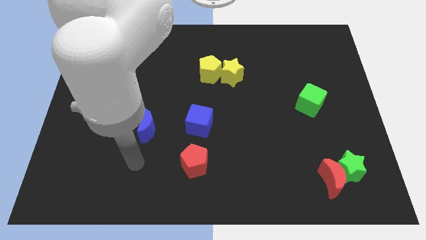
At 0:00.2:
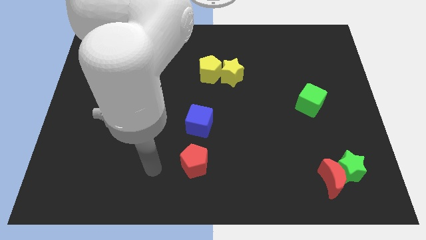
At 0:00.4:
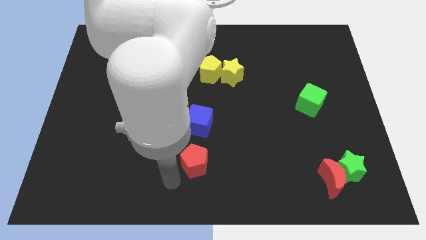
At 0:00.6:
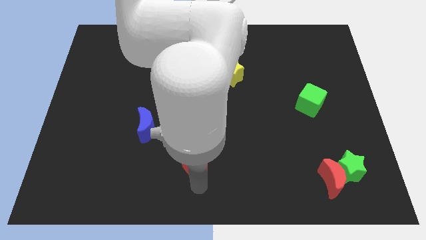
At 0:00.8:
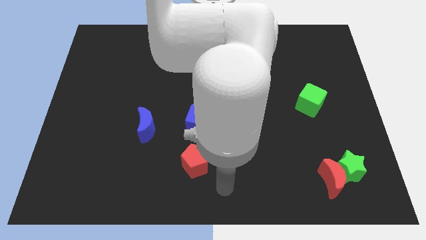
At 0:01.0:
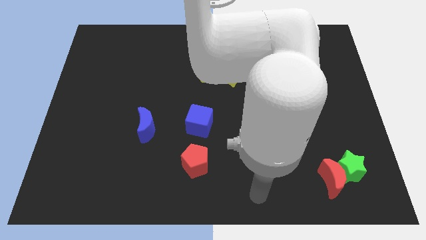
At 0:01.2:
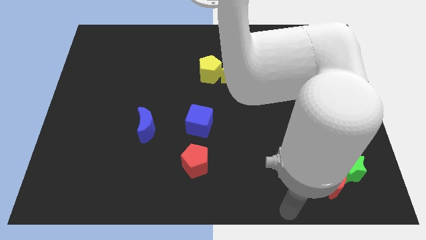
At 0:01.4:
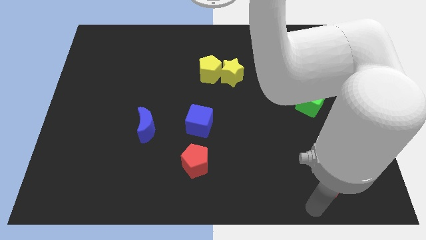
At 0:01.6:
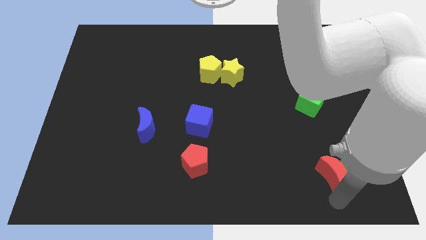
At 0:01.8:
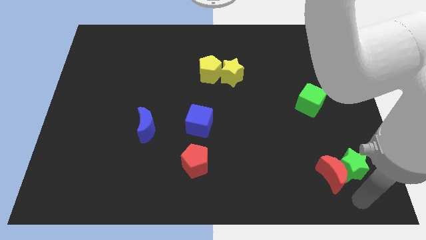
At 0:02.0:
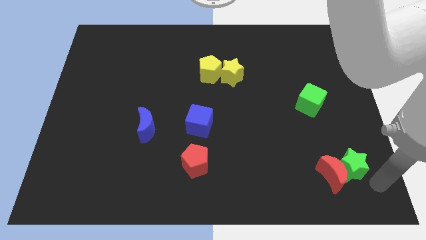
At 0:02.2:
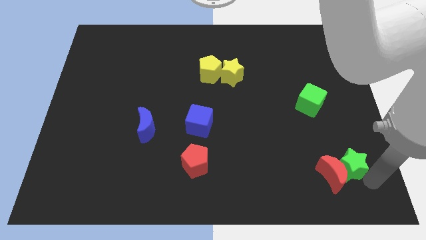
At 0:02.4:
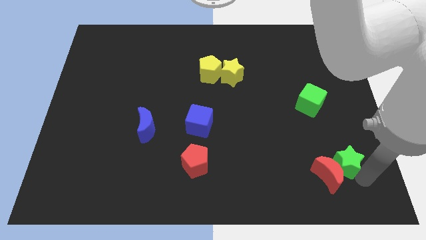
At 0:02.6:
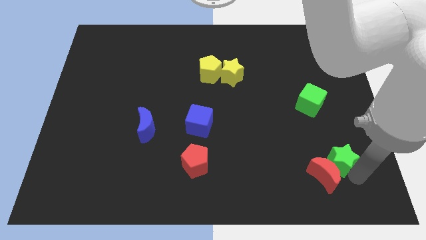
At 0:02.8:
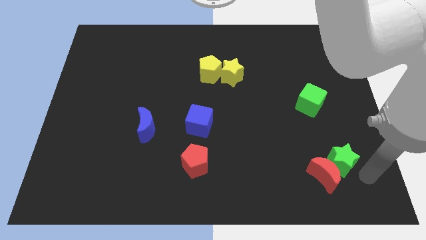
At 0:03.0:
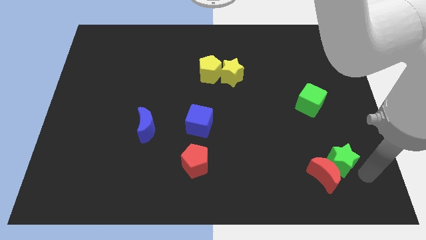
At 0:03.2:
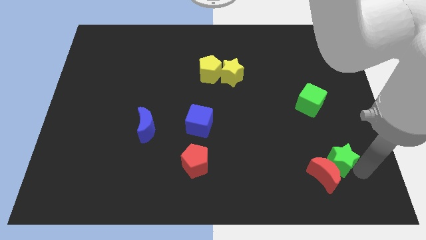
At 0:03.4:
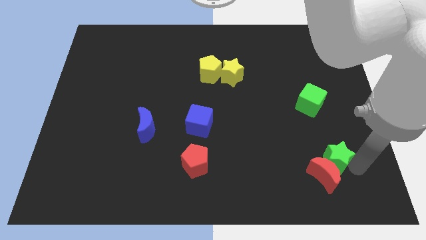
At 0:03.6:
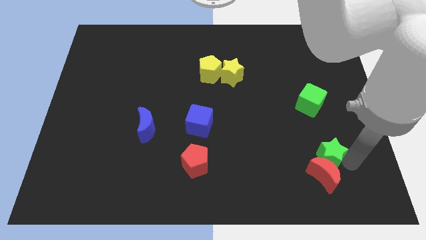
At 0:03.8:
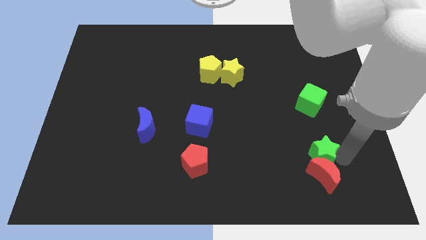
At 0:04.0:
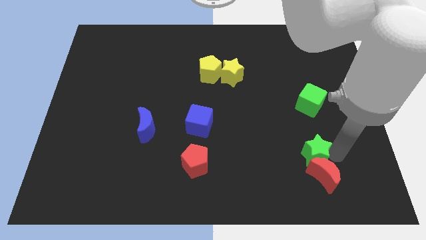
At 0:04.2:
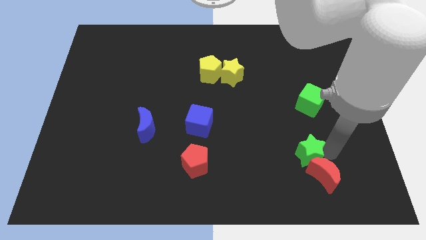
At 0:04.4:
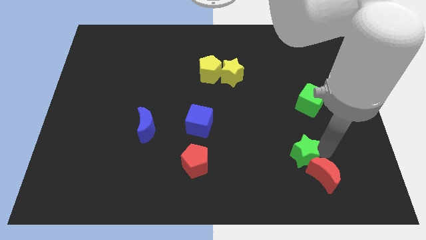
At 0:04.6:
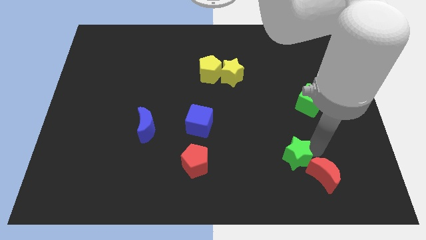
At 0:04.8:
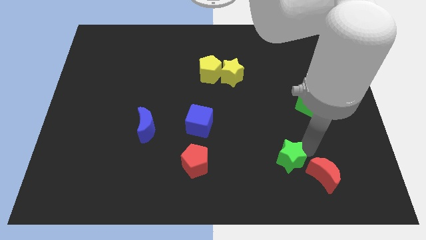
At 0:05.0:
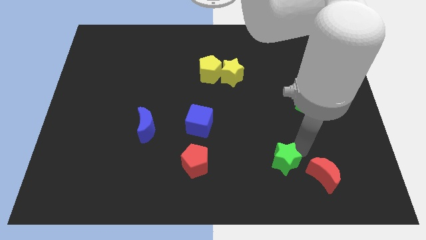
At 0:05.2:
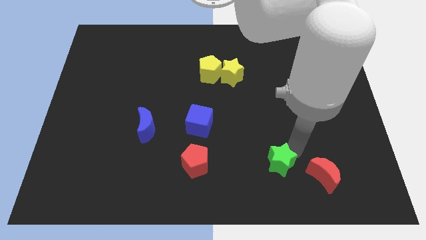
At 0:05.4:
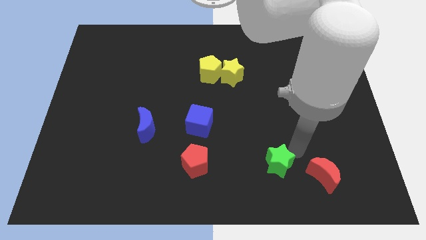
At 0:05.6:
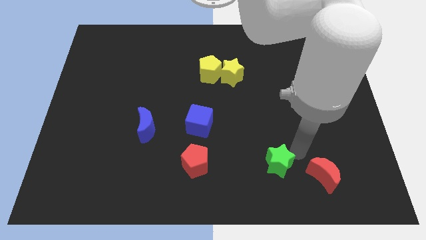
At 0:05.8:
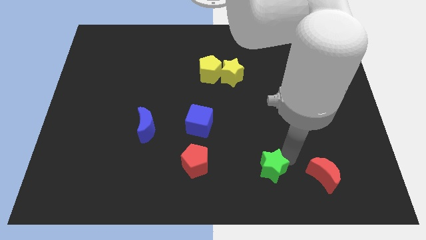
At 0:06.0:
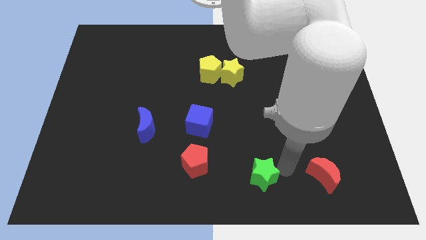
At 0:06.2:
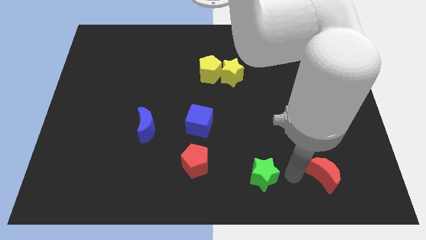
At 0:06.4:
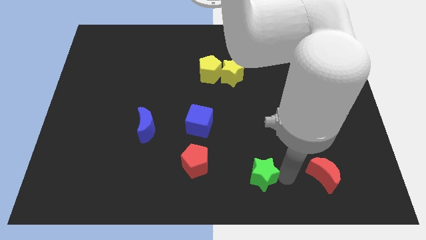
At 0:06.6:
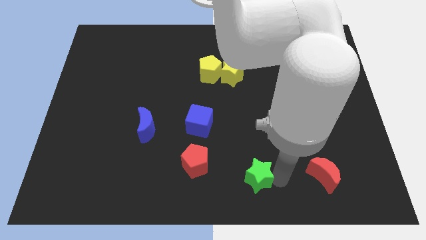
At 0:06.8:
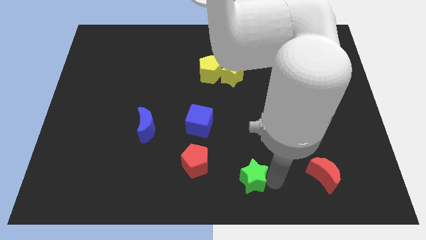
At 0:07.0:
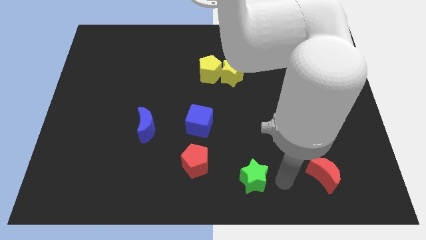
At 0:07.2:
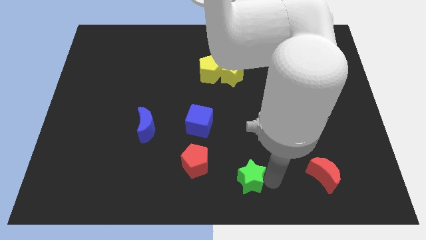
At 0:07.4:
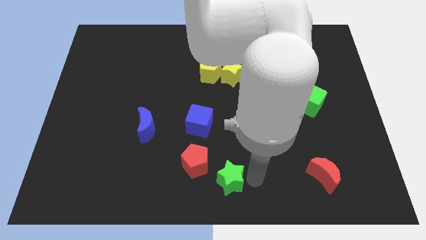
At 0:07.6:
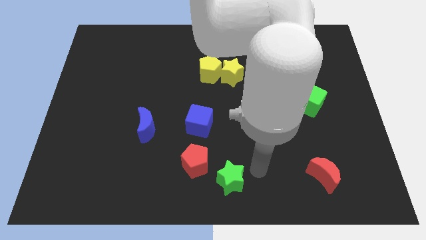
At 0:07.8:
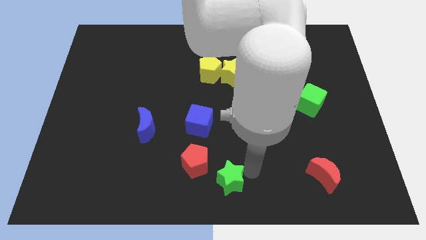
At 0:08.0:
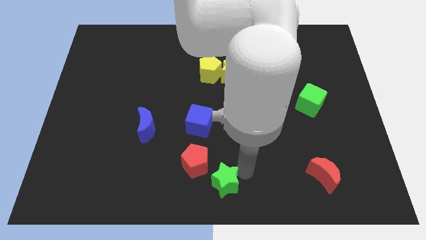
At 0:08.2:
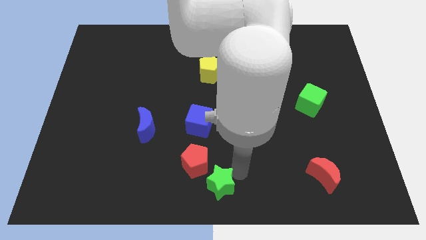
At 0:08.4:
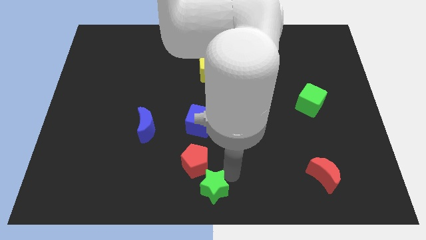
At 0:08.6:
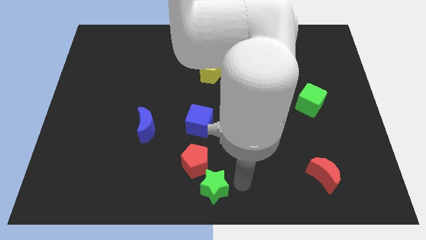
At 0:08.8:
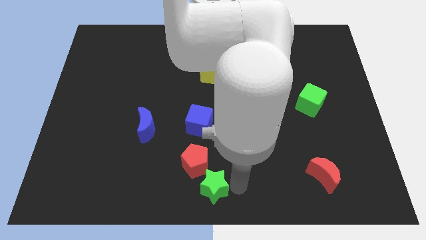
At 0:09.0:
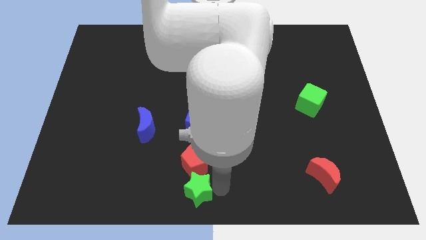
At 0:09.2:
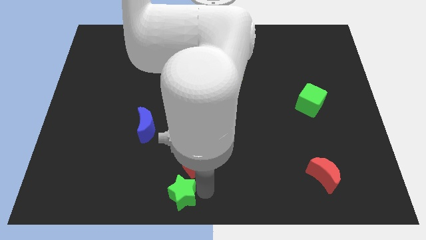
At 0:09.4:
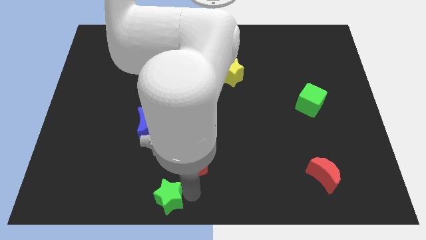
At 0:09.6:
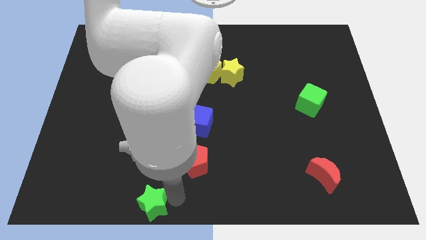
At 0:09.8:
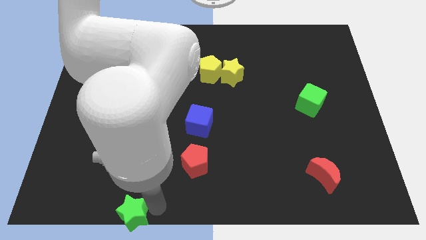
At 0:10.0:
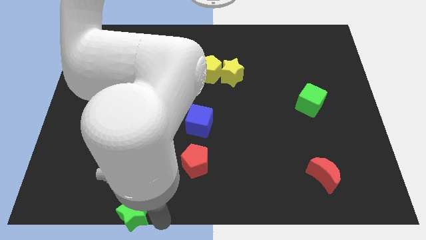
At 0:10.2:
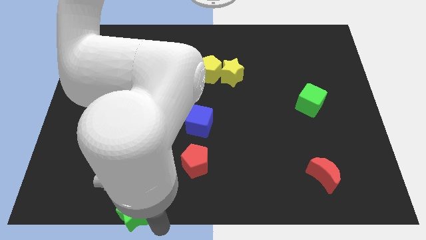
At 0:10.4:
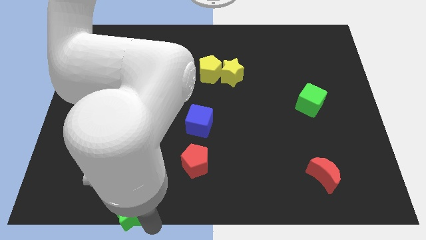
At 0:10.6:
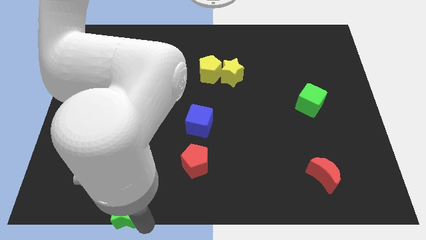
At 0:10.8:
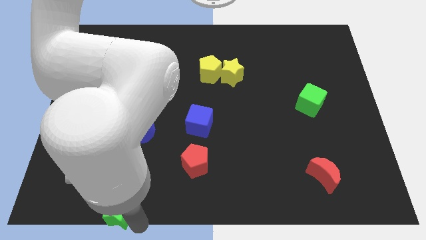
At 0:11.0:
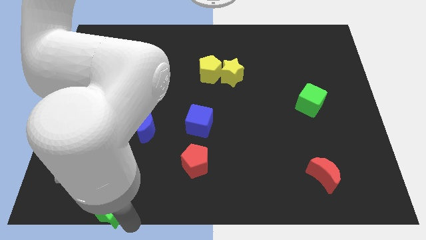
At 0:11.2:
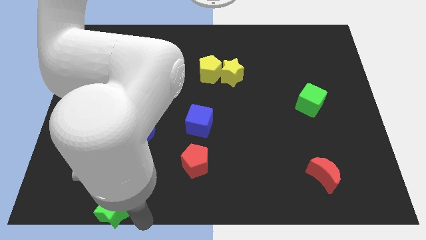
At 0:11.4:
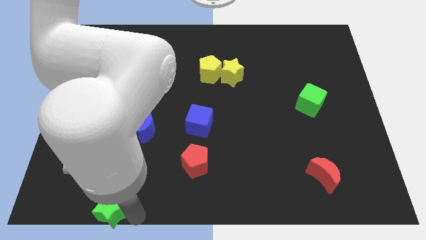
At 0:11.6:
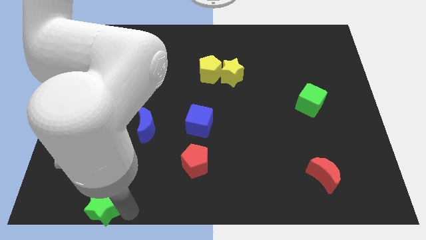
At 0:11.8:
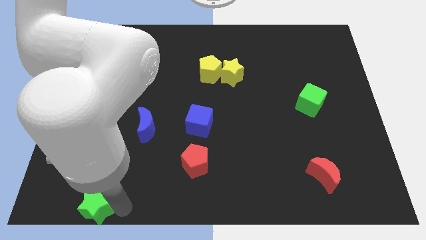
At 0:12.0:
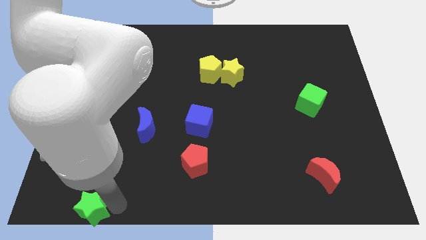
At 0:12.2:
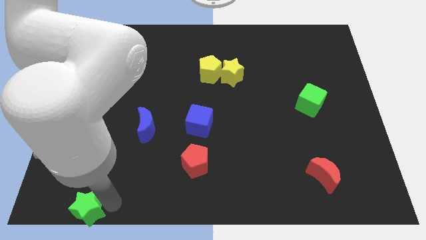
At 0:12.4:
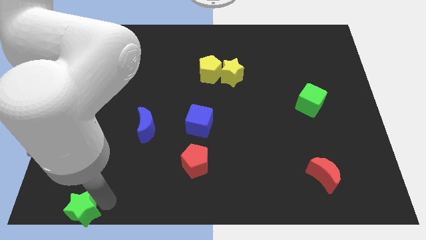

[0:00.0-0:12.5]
move the green star to the lower left corner

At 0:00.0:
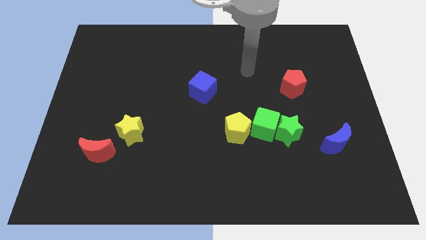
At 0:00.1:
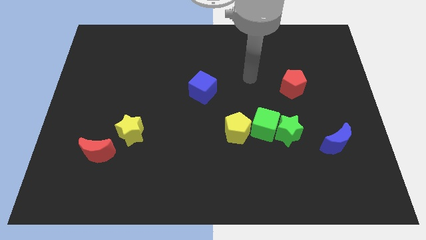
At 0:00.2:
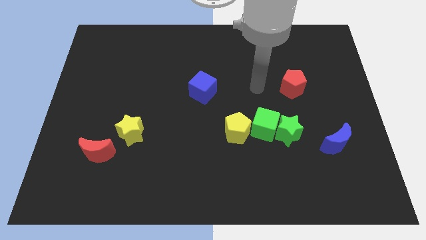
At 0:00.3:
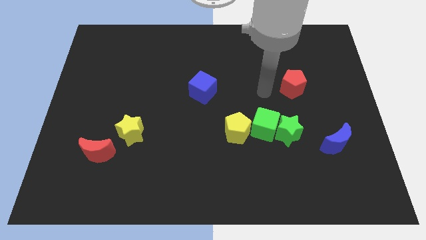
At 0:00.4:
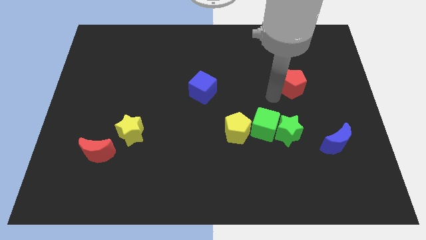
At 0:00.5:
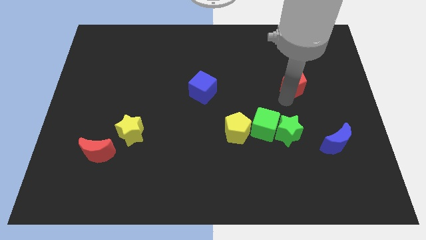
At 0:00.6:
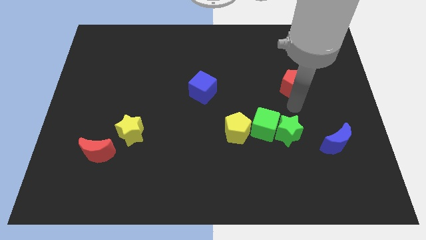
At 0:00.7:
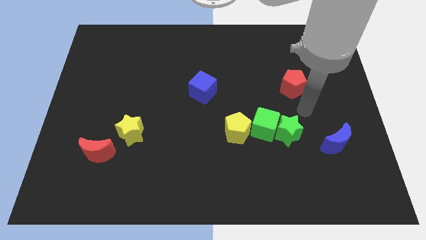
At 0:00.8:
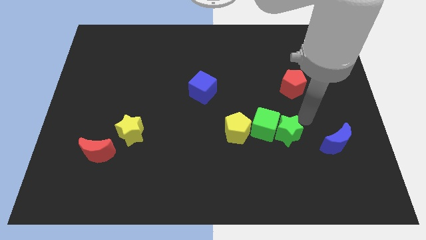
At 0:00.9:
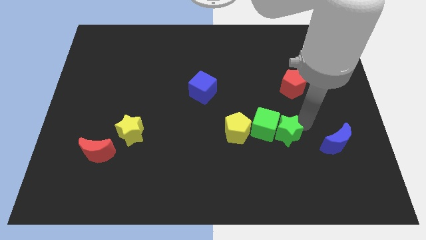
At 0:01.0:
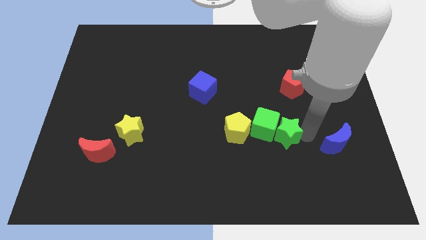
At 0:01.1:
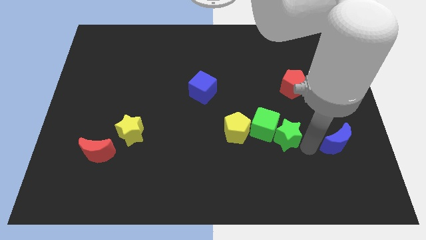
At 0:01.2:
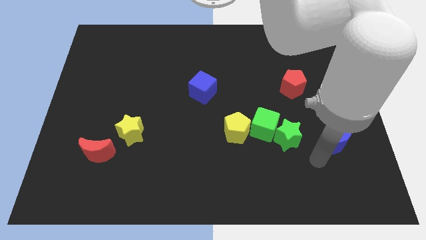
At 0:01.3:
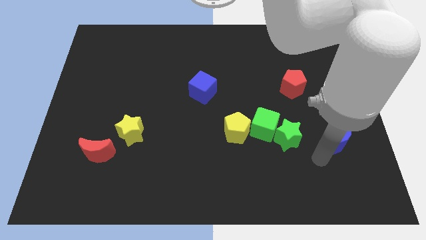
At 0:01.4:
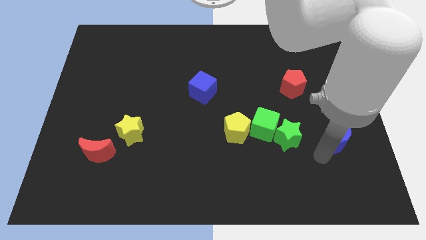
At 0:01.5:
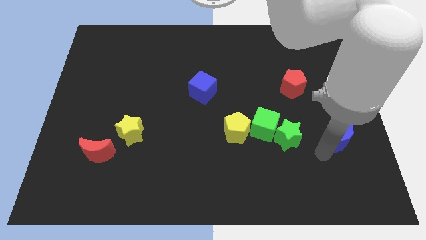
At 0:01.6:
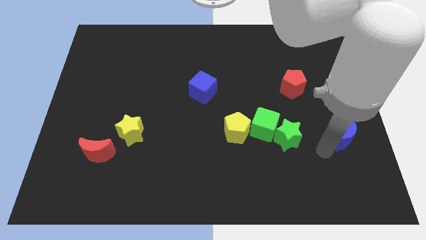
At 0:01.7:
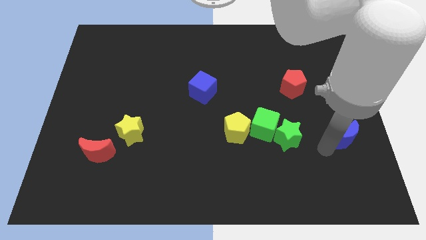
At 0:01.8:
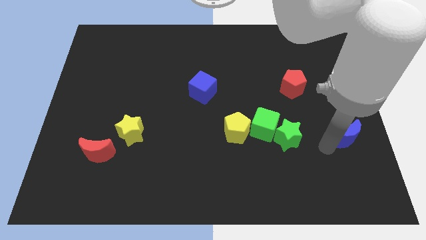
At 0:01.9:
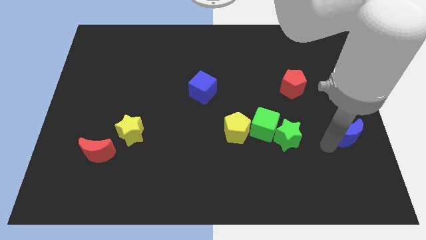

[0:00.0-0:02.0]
put the blue moon to the right side of the board
